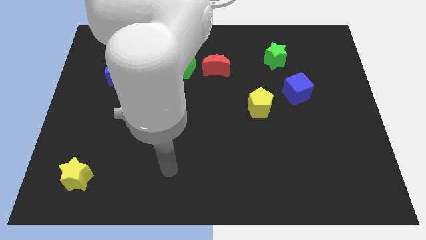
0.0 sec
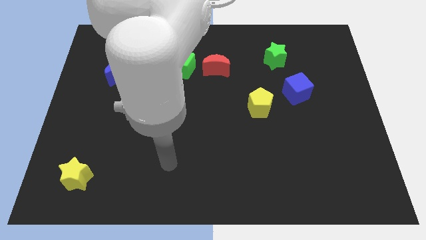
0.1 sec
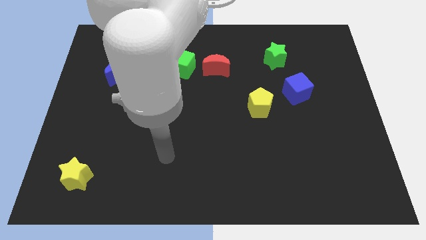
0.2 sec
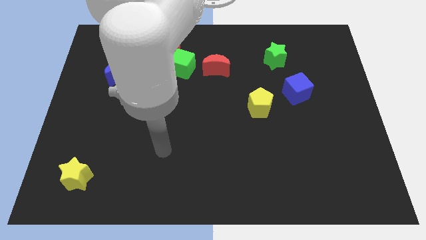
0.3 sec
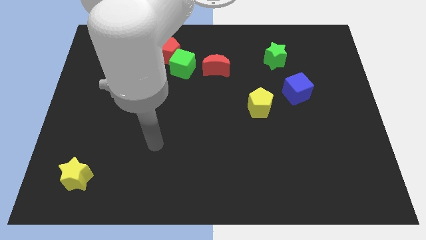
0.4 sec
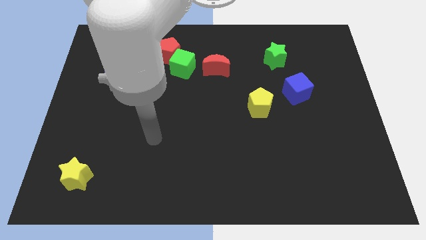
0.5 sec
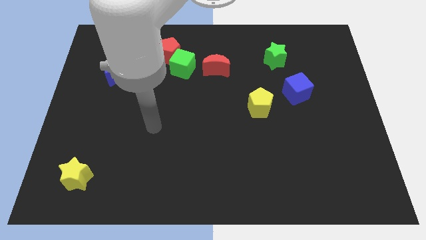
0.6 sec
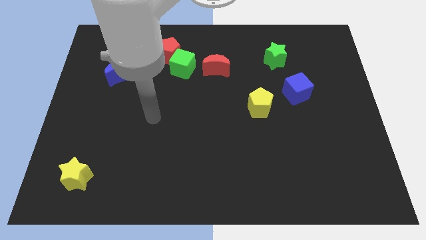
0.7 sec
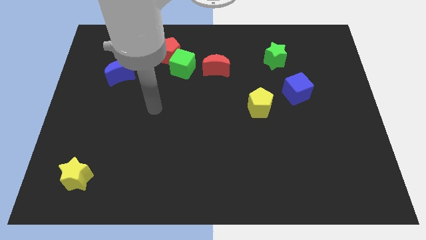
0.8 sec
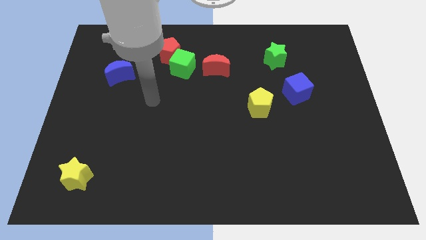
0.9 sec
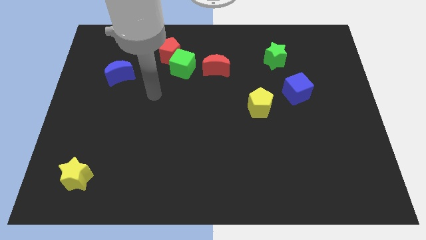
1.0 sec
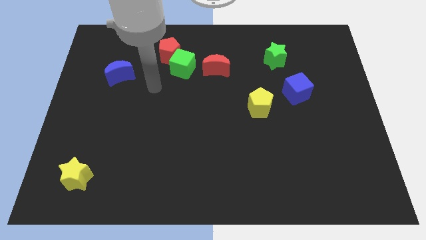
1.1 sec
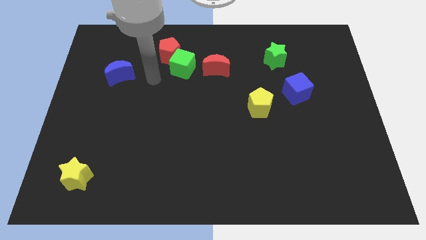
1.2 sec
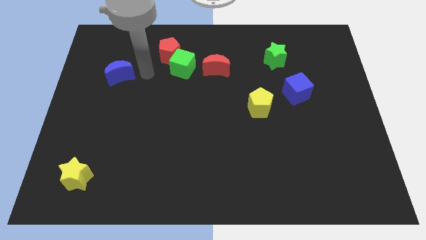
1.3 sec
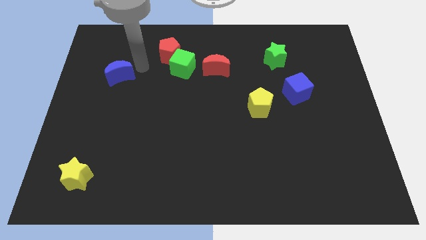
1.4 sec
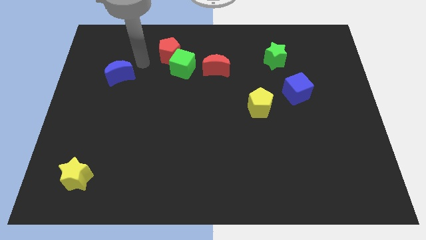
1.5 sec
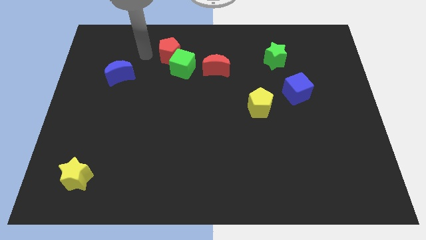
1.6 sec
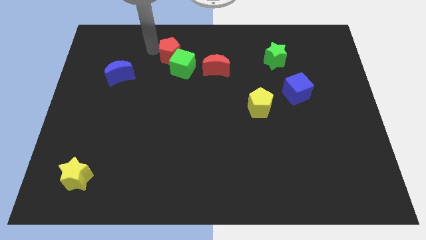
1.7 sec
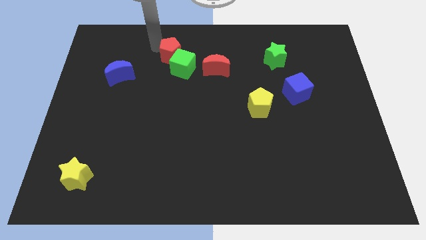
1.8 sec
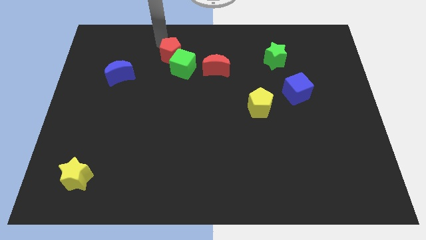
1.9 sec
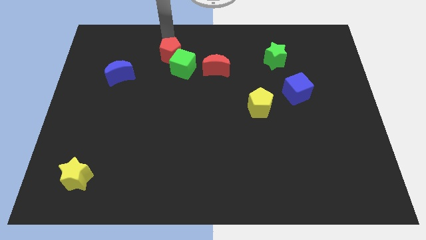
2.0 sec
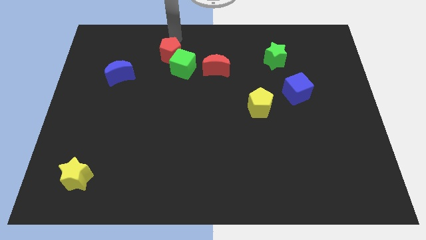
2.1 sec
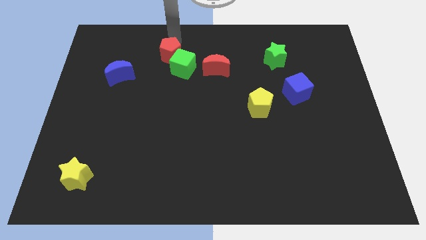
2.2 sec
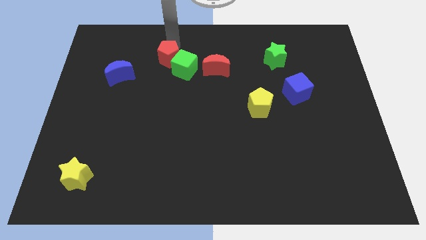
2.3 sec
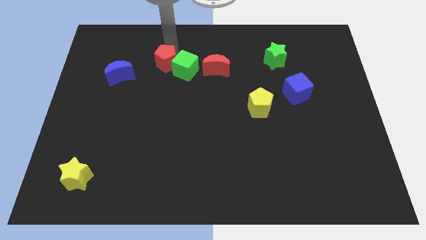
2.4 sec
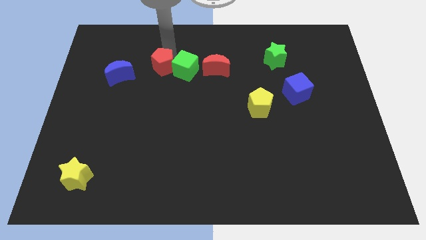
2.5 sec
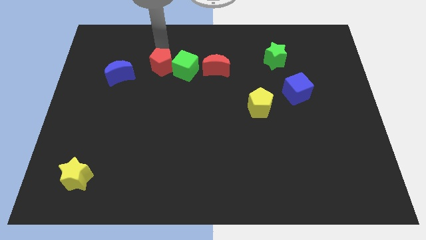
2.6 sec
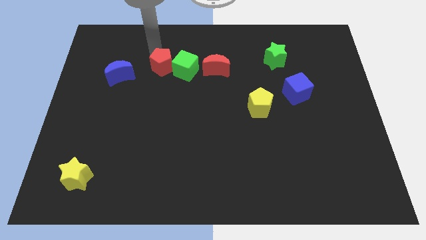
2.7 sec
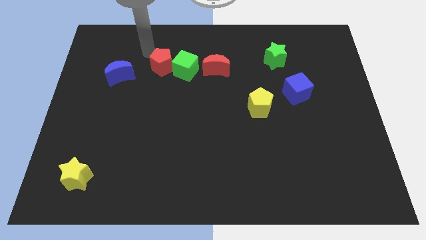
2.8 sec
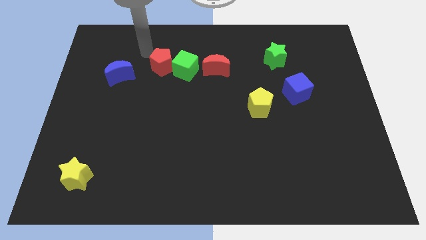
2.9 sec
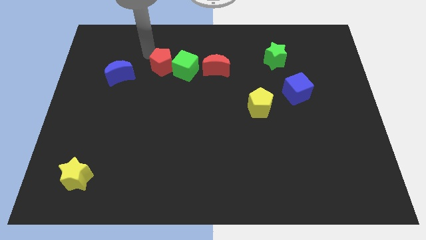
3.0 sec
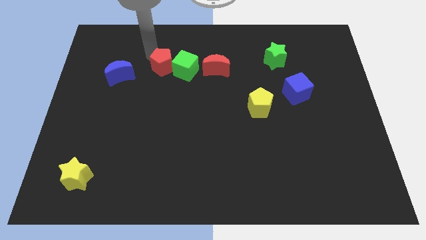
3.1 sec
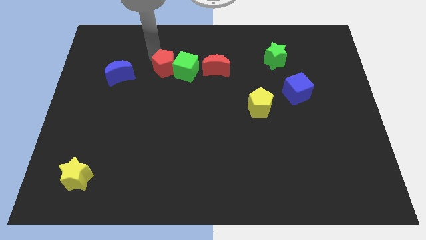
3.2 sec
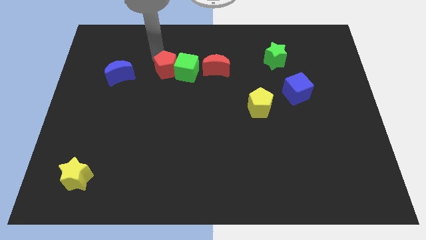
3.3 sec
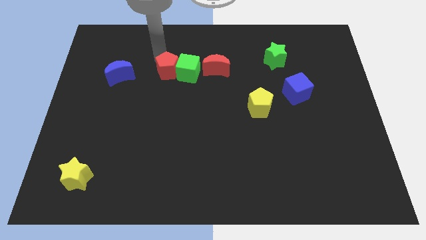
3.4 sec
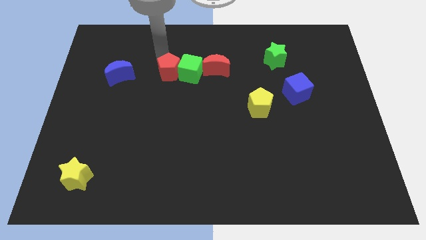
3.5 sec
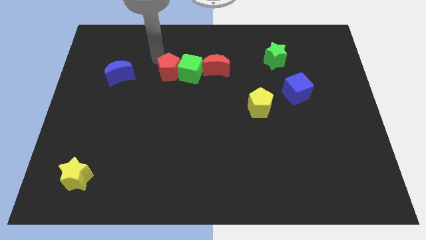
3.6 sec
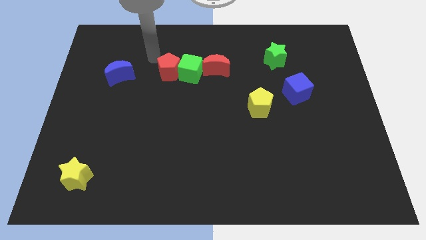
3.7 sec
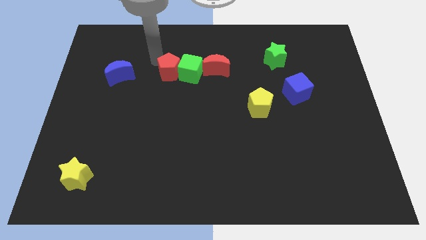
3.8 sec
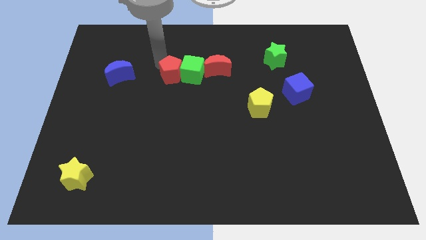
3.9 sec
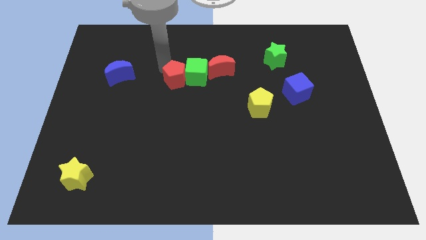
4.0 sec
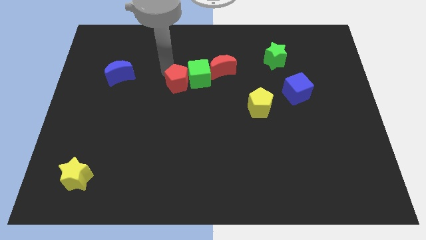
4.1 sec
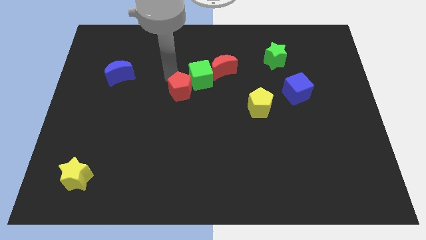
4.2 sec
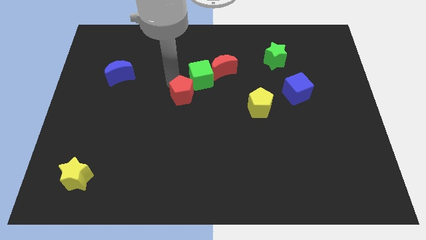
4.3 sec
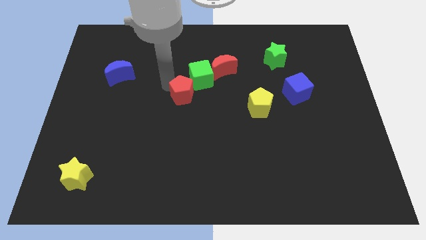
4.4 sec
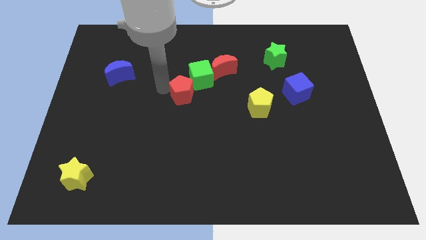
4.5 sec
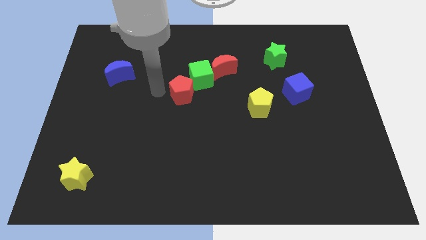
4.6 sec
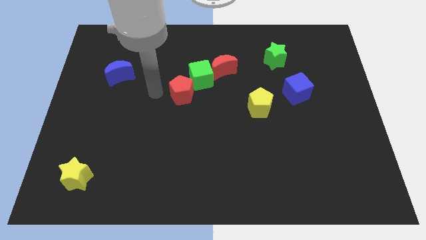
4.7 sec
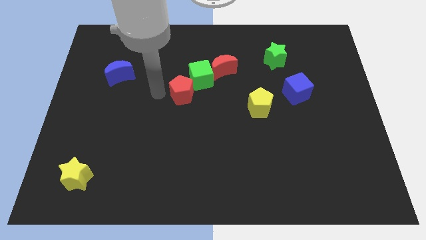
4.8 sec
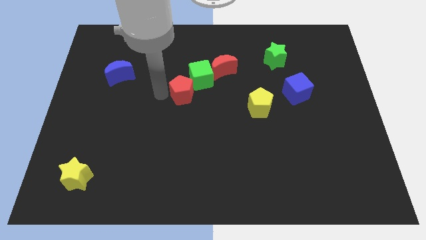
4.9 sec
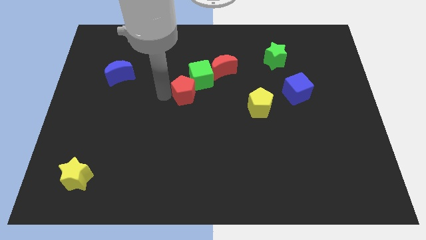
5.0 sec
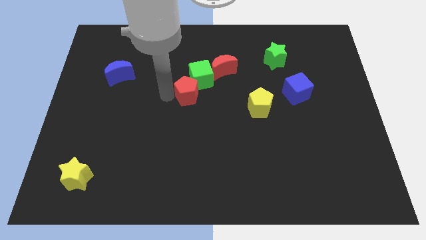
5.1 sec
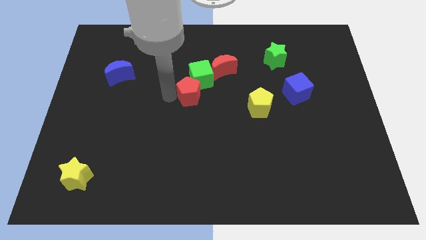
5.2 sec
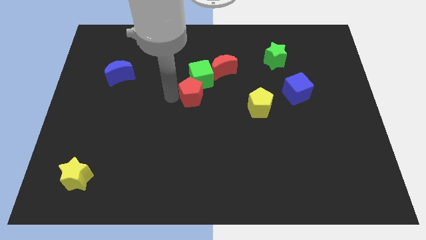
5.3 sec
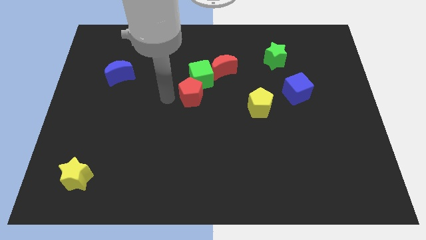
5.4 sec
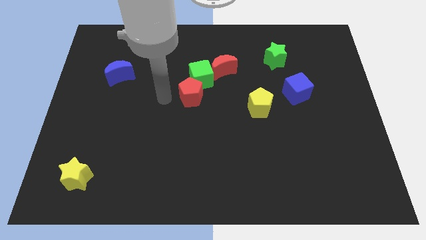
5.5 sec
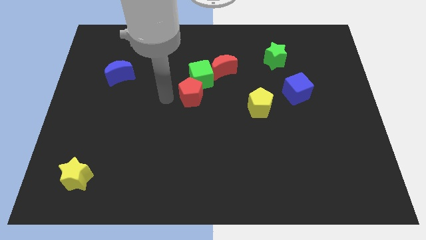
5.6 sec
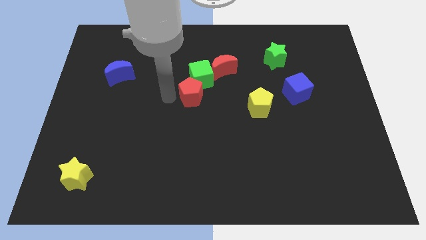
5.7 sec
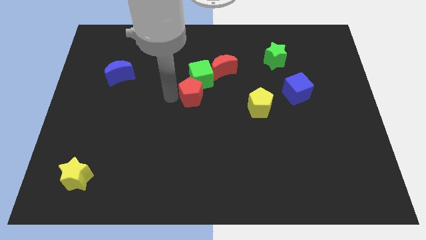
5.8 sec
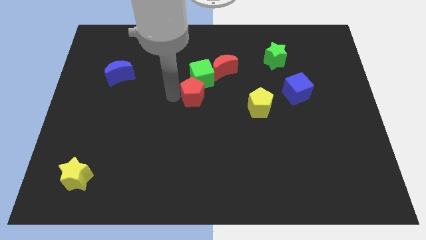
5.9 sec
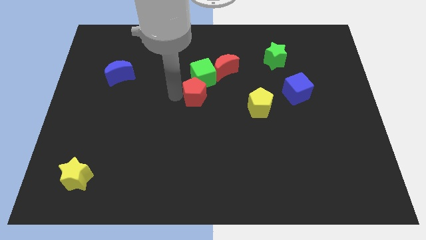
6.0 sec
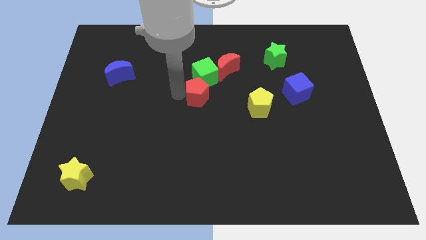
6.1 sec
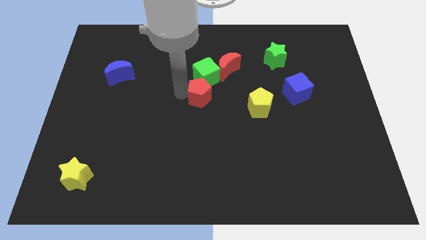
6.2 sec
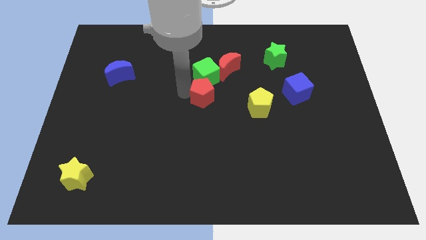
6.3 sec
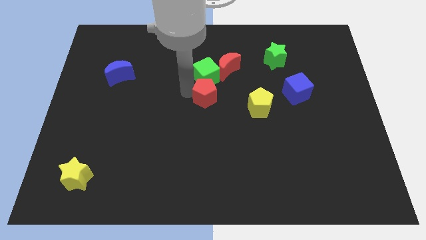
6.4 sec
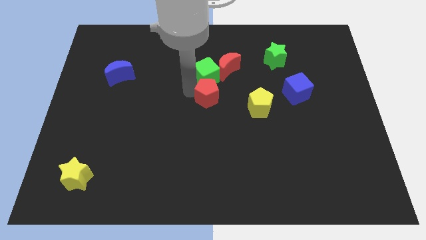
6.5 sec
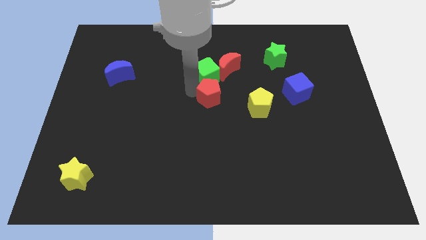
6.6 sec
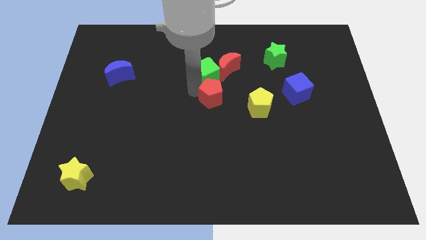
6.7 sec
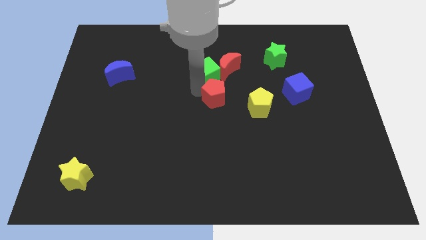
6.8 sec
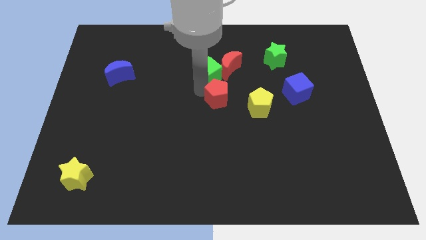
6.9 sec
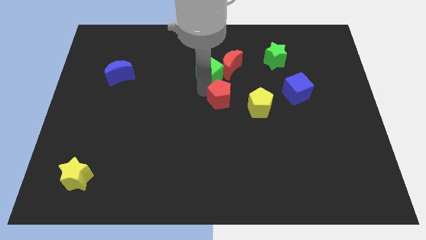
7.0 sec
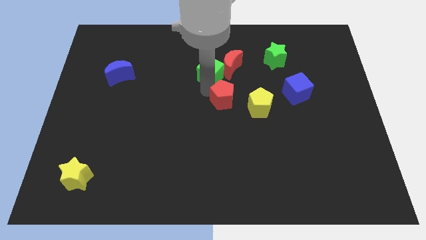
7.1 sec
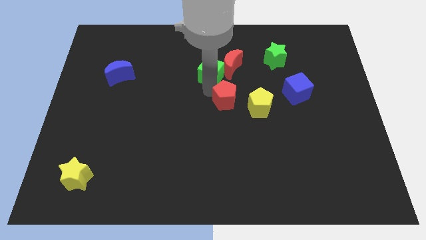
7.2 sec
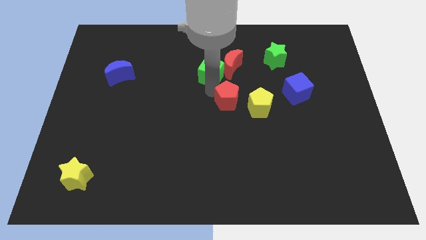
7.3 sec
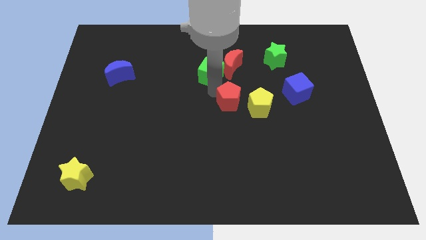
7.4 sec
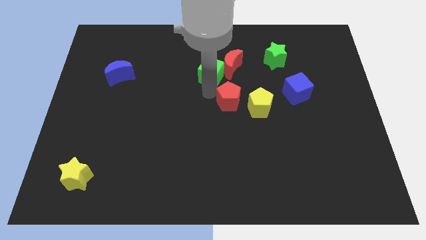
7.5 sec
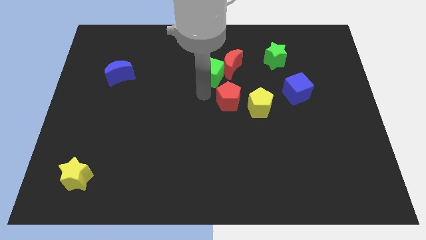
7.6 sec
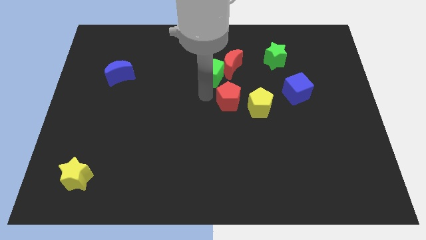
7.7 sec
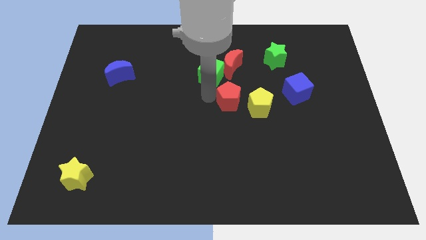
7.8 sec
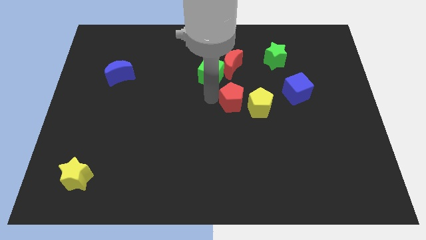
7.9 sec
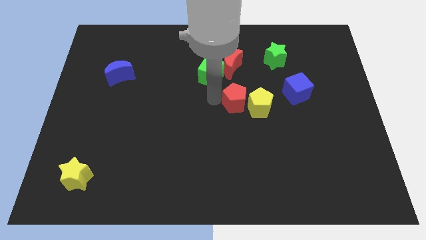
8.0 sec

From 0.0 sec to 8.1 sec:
put the red pentagon close to the yellow pentagon
